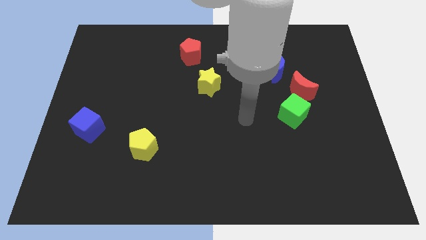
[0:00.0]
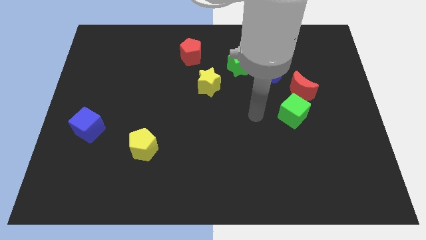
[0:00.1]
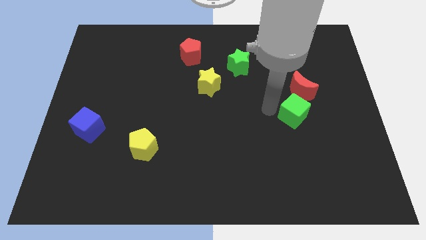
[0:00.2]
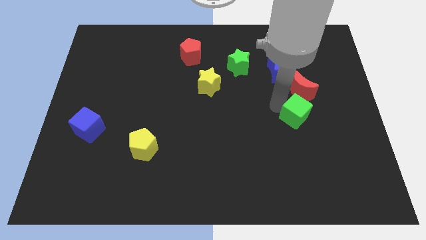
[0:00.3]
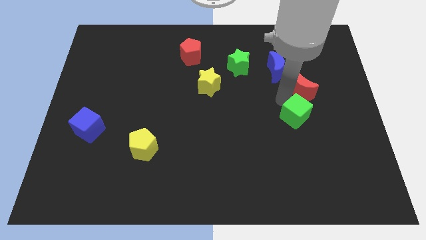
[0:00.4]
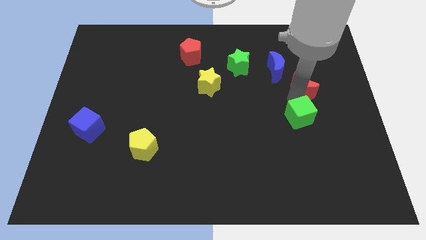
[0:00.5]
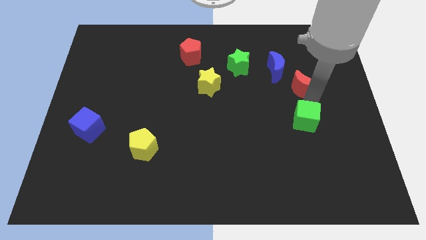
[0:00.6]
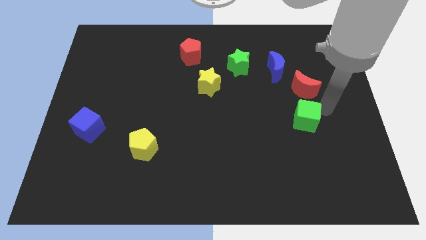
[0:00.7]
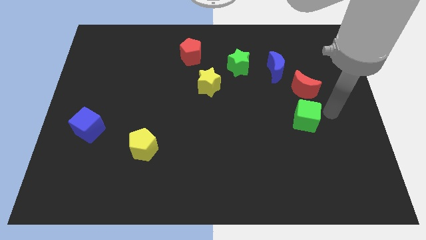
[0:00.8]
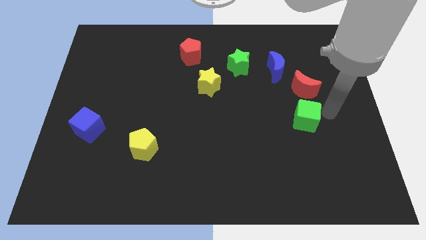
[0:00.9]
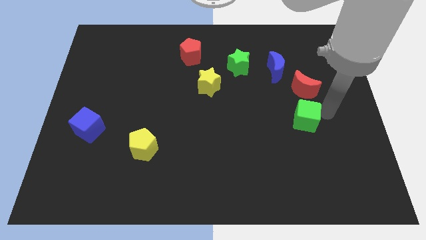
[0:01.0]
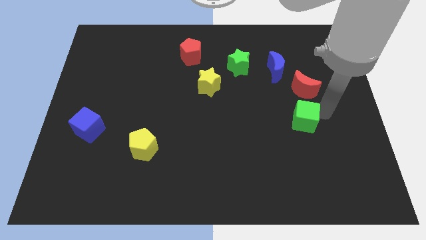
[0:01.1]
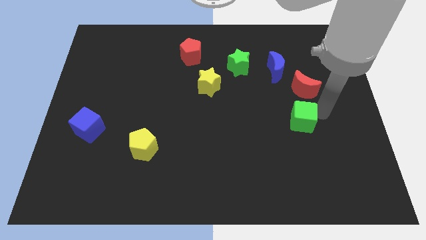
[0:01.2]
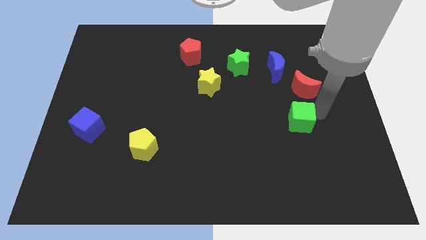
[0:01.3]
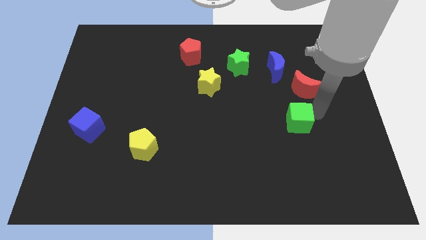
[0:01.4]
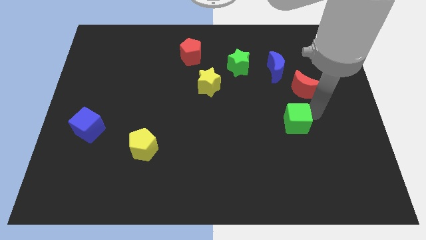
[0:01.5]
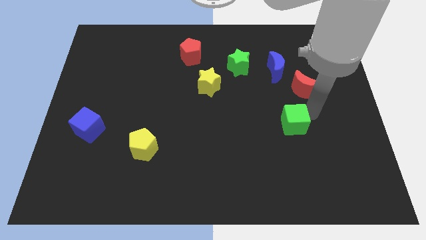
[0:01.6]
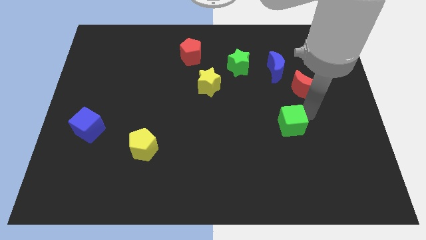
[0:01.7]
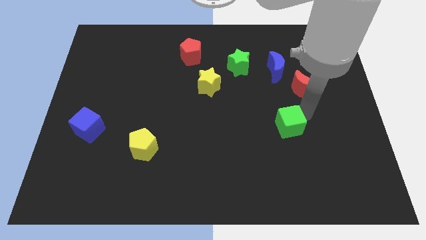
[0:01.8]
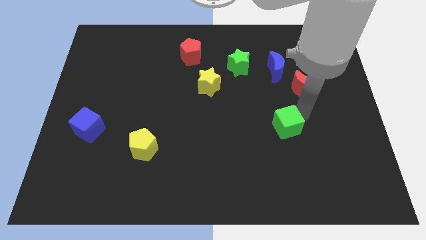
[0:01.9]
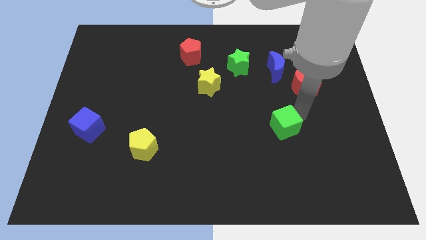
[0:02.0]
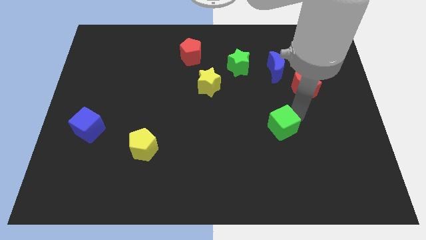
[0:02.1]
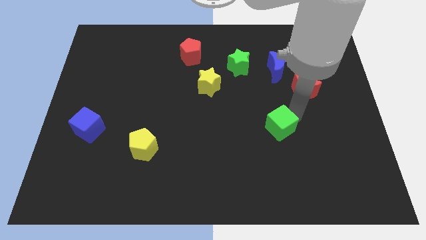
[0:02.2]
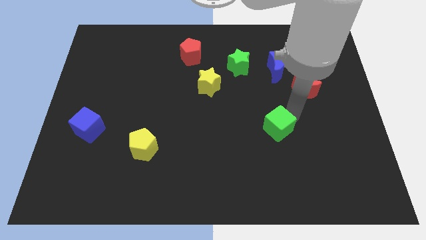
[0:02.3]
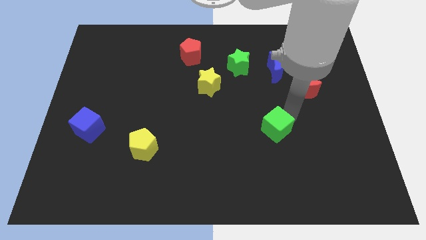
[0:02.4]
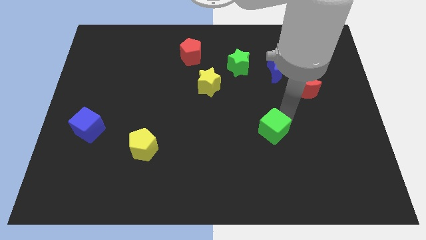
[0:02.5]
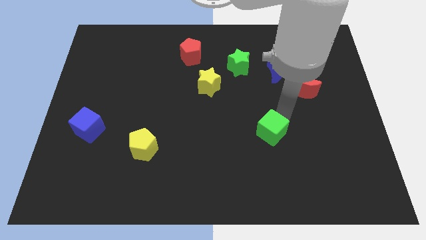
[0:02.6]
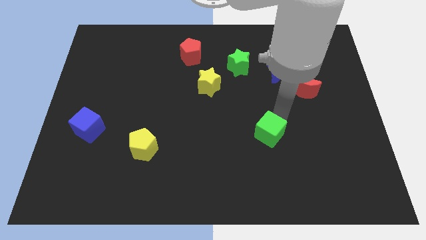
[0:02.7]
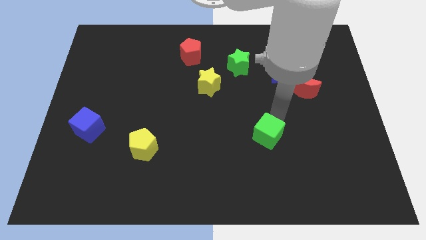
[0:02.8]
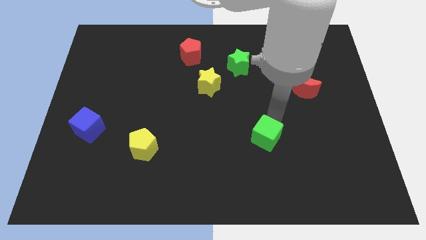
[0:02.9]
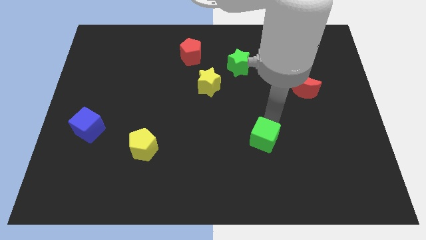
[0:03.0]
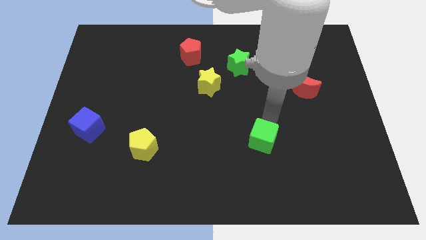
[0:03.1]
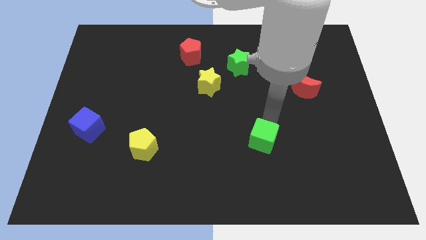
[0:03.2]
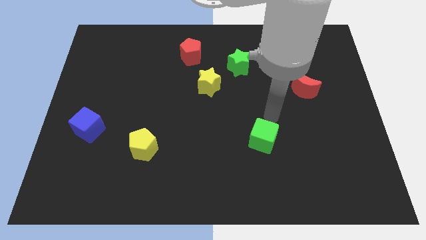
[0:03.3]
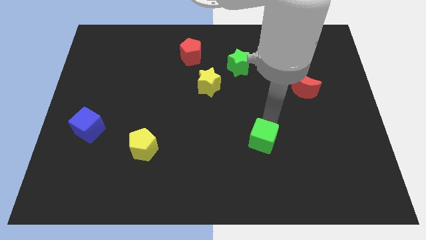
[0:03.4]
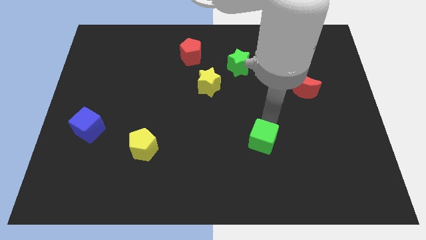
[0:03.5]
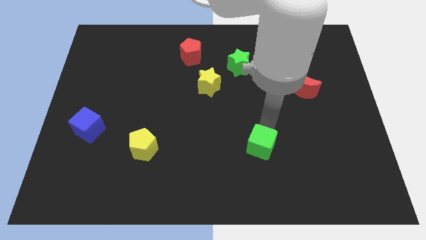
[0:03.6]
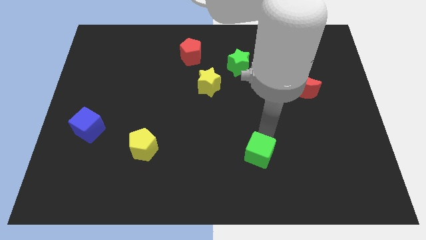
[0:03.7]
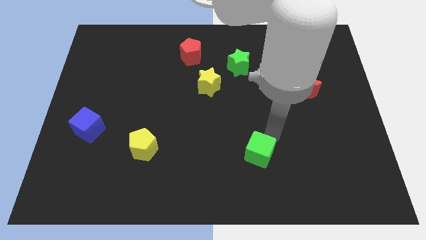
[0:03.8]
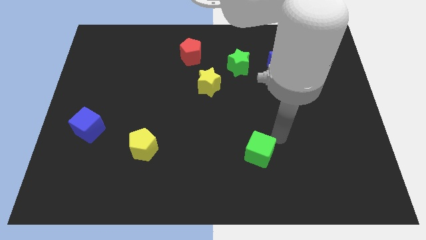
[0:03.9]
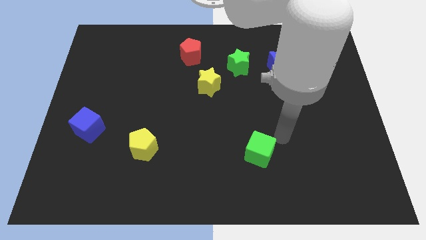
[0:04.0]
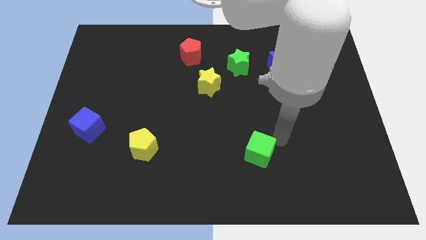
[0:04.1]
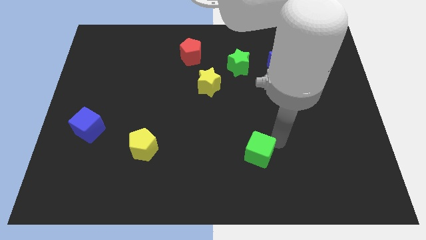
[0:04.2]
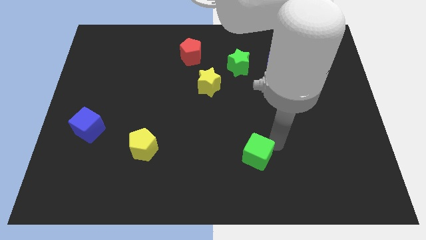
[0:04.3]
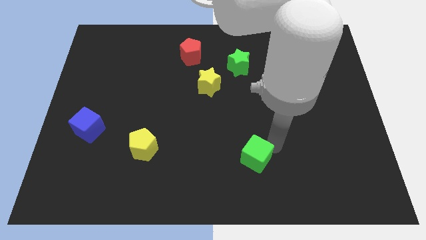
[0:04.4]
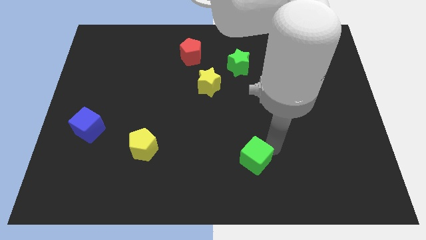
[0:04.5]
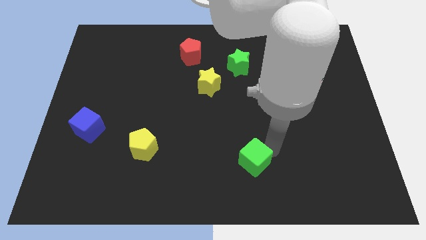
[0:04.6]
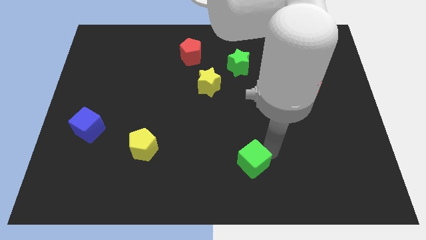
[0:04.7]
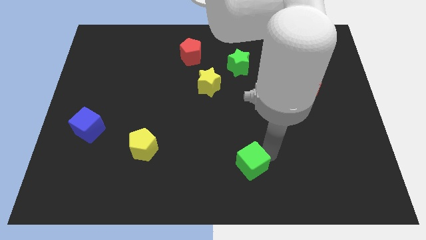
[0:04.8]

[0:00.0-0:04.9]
slide the green cube to the bottom side

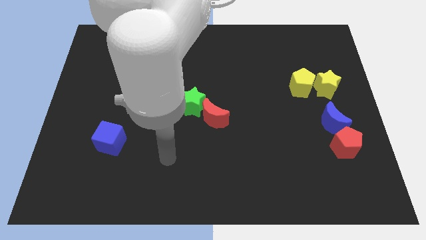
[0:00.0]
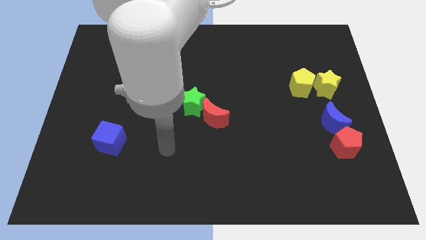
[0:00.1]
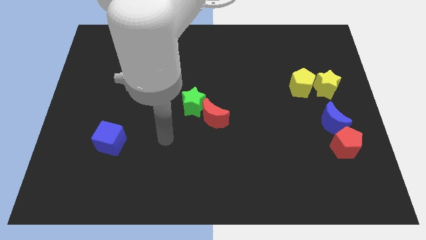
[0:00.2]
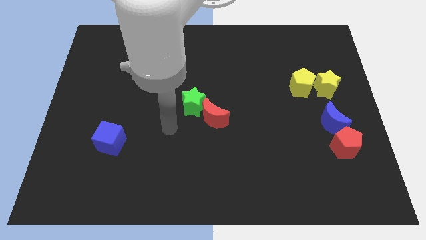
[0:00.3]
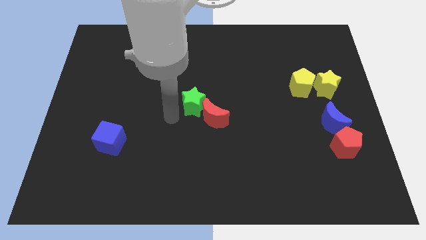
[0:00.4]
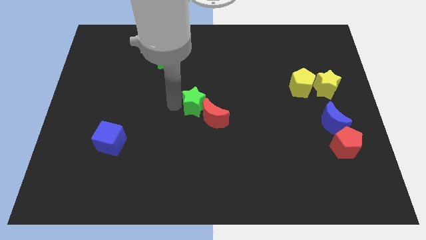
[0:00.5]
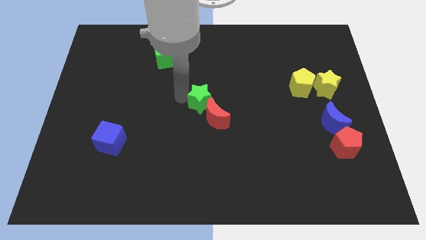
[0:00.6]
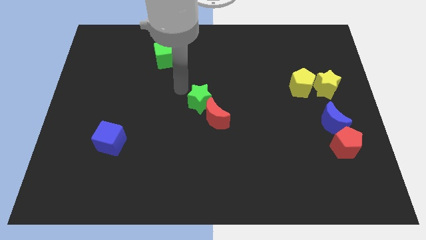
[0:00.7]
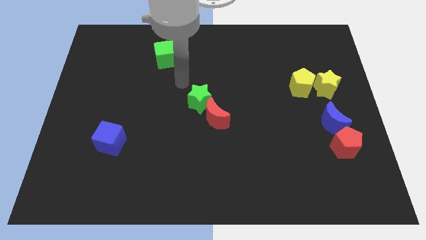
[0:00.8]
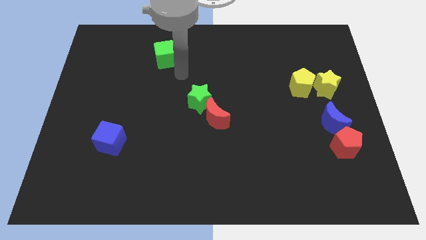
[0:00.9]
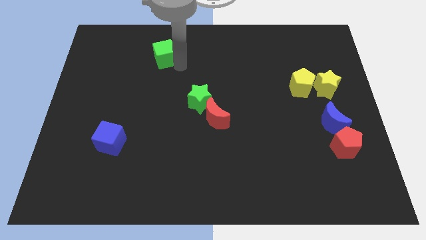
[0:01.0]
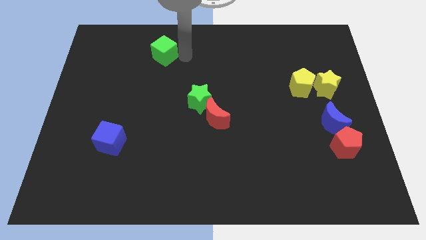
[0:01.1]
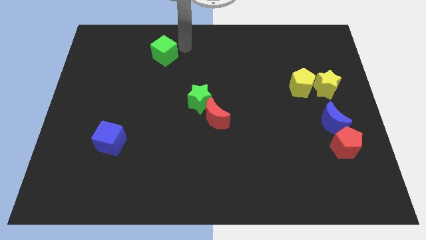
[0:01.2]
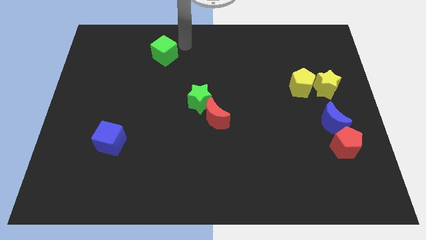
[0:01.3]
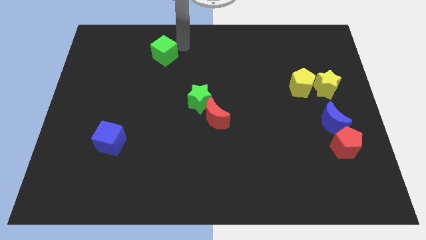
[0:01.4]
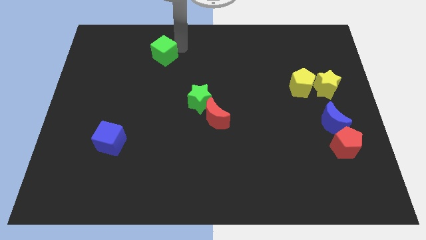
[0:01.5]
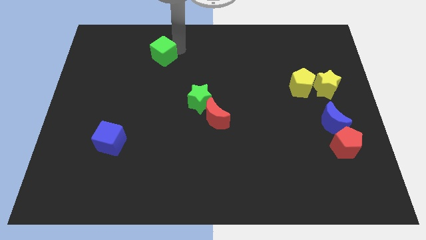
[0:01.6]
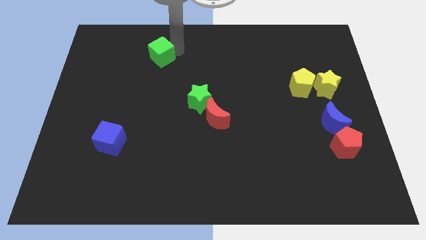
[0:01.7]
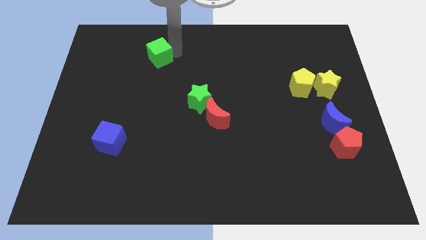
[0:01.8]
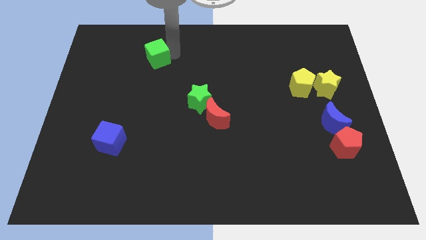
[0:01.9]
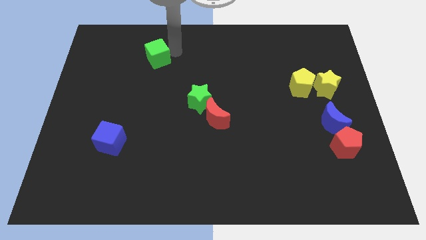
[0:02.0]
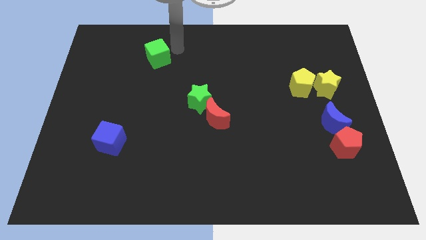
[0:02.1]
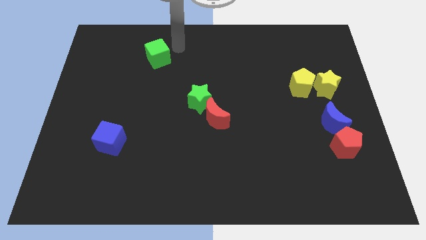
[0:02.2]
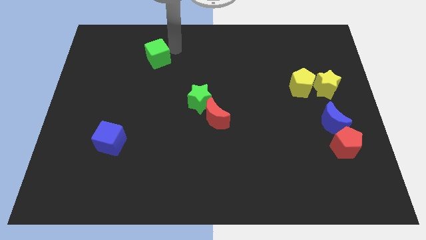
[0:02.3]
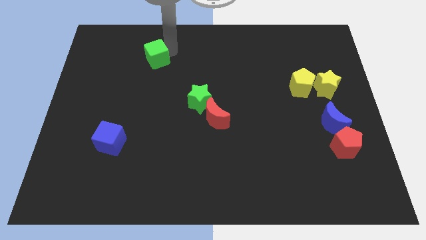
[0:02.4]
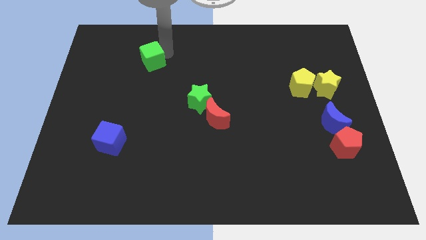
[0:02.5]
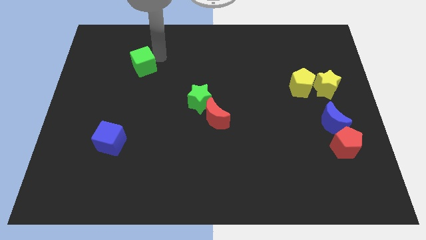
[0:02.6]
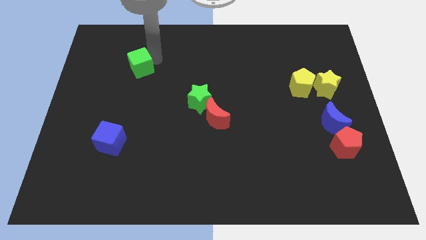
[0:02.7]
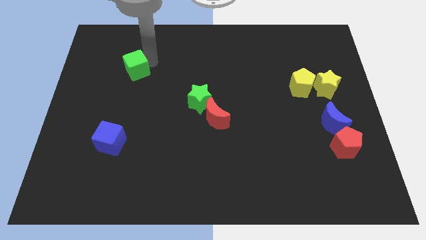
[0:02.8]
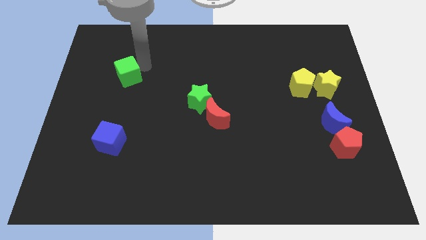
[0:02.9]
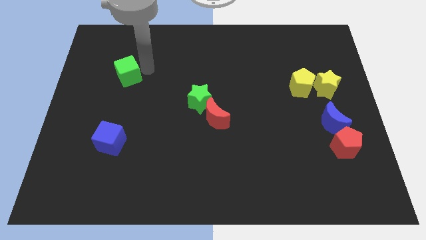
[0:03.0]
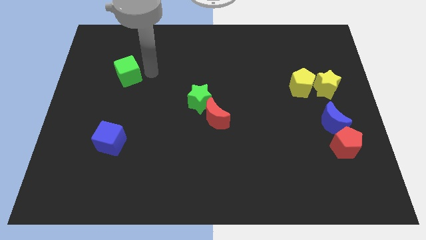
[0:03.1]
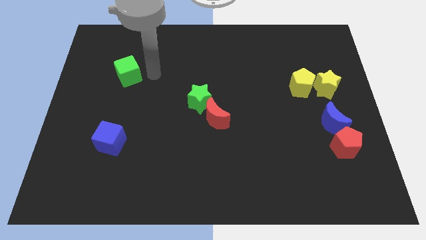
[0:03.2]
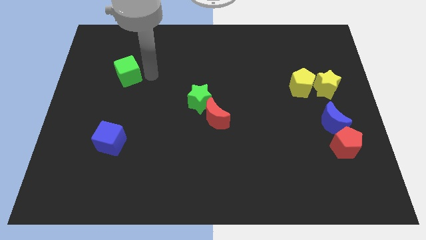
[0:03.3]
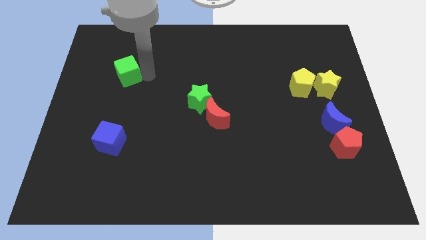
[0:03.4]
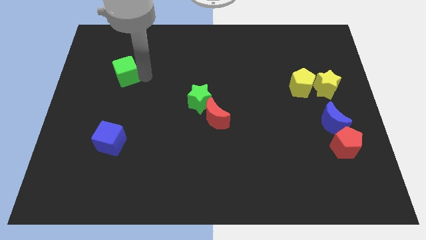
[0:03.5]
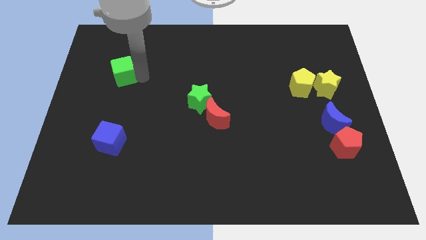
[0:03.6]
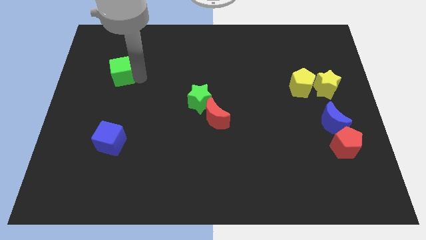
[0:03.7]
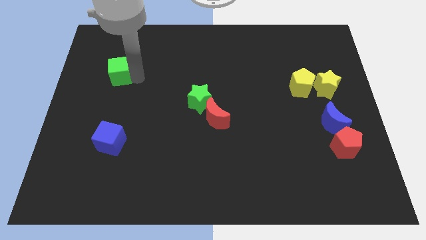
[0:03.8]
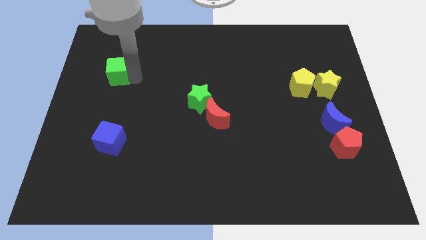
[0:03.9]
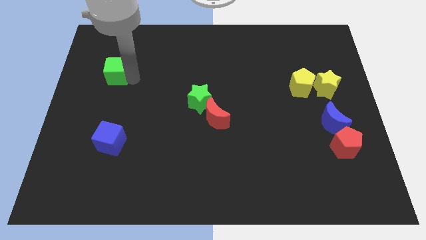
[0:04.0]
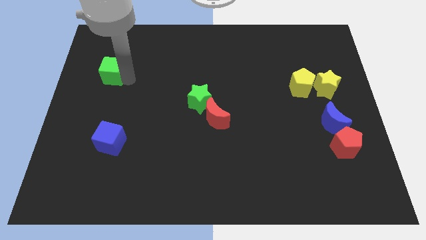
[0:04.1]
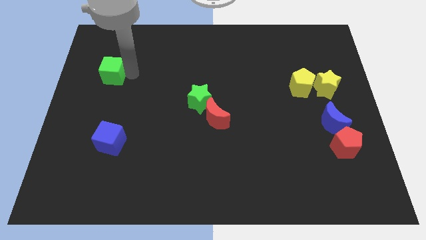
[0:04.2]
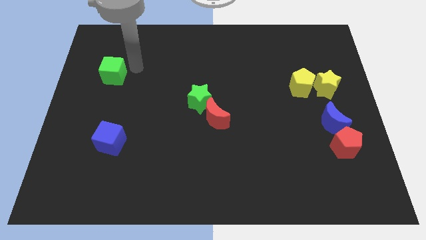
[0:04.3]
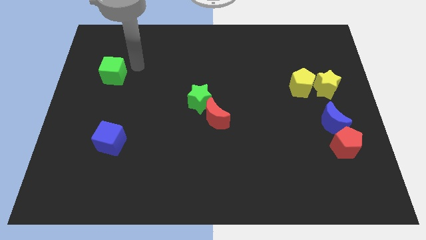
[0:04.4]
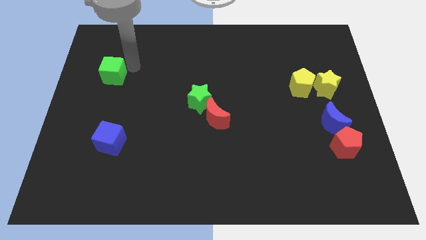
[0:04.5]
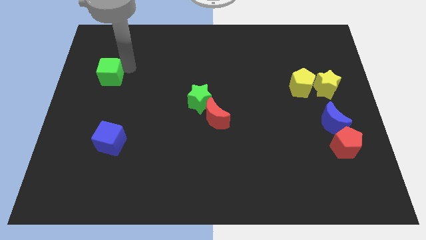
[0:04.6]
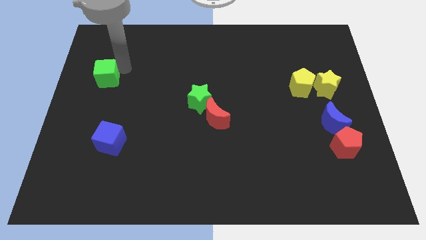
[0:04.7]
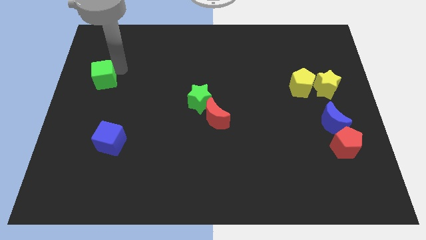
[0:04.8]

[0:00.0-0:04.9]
move the green cube to the left side of the board
